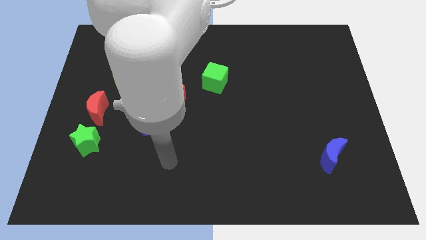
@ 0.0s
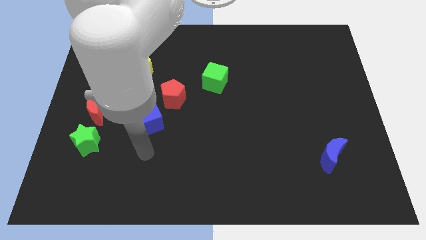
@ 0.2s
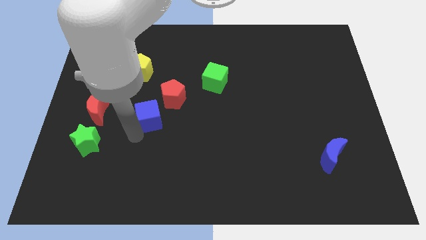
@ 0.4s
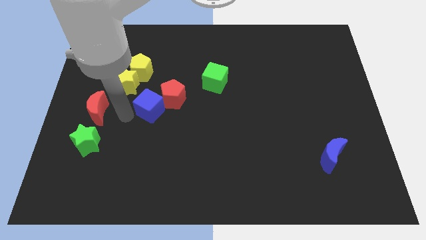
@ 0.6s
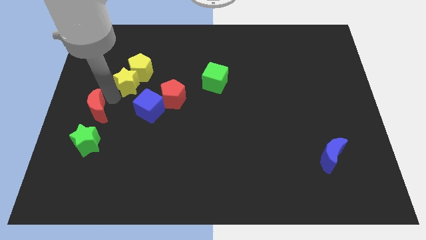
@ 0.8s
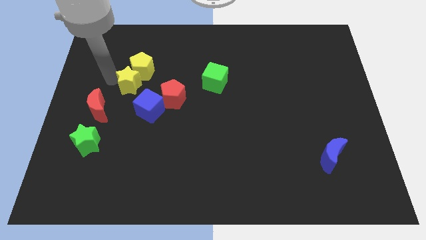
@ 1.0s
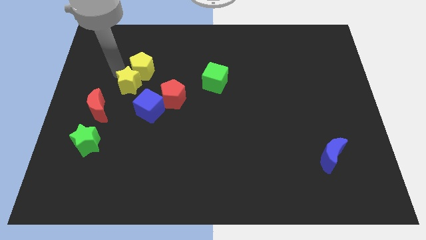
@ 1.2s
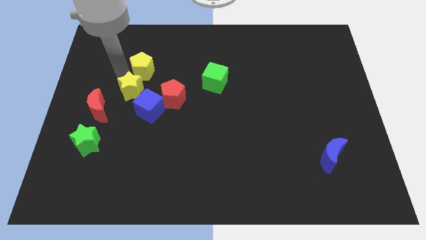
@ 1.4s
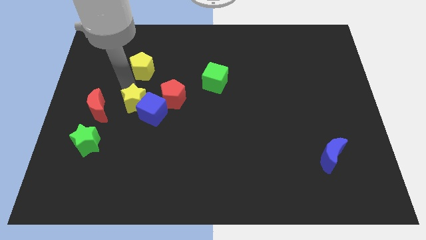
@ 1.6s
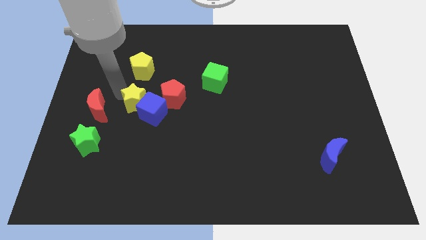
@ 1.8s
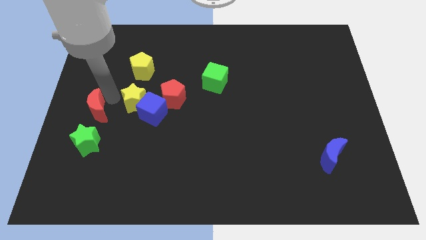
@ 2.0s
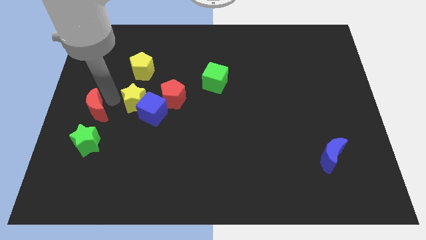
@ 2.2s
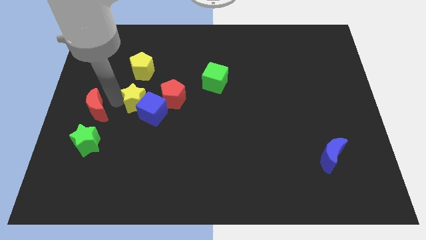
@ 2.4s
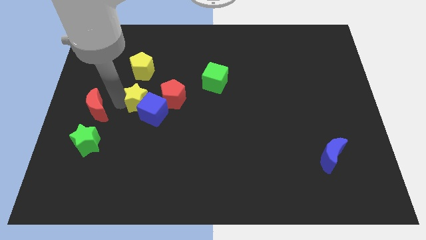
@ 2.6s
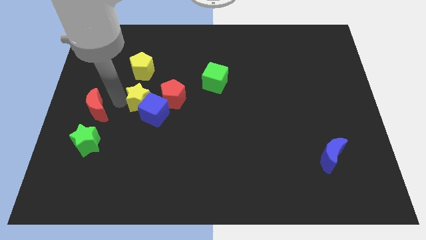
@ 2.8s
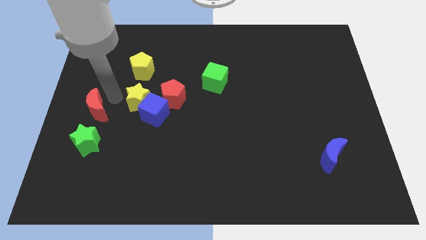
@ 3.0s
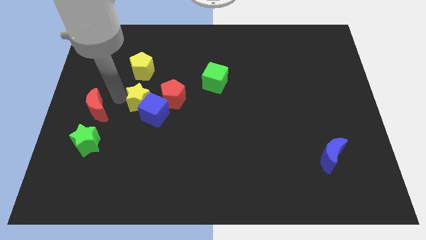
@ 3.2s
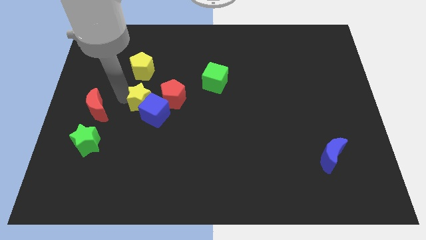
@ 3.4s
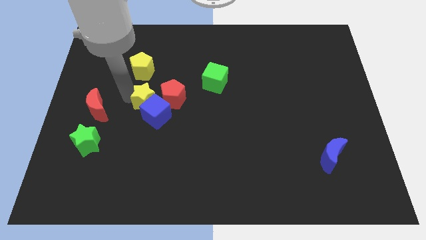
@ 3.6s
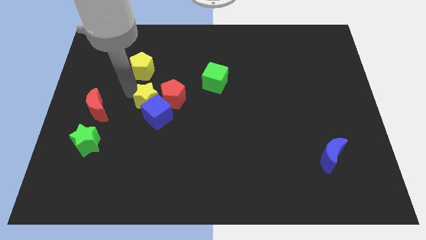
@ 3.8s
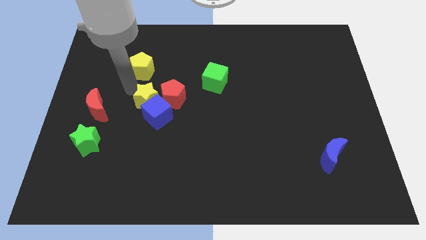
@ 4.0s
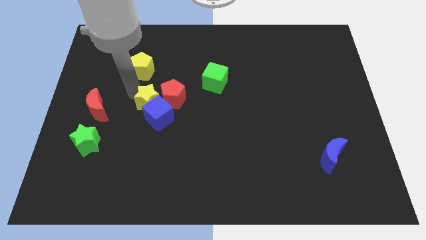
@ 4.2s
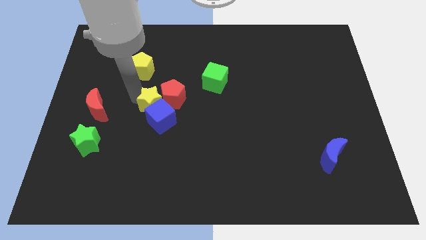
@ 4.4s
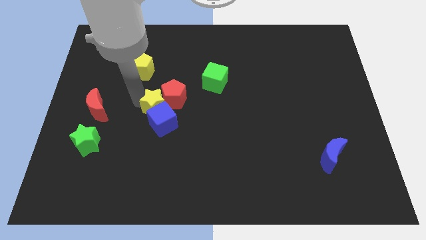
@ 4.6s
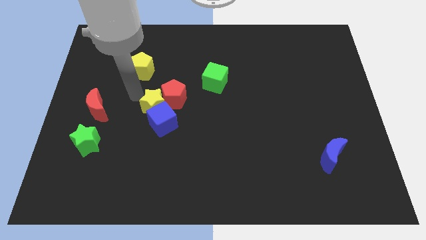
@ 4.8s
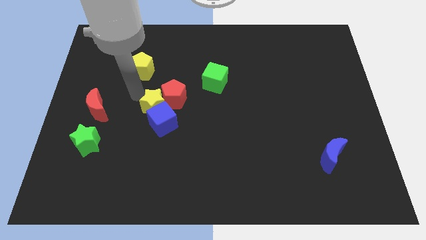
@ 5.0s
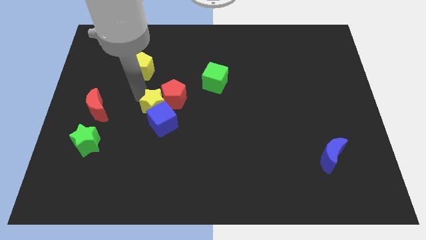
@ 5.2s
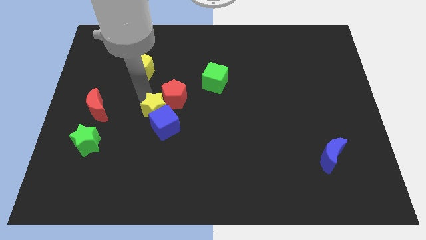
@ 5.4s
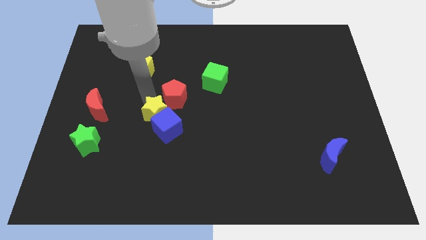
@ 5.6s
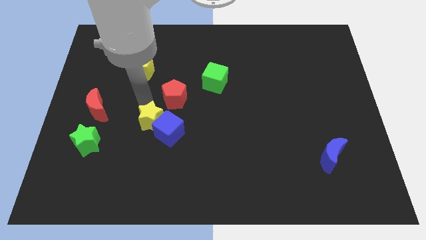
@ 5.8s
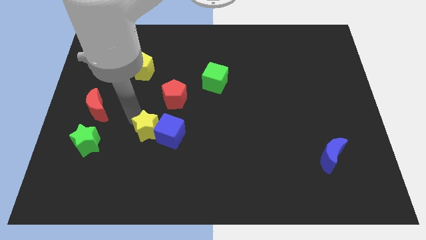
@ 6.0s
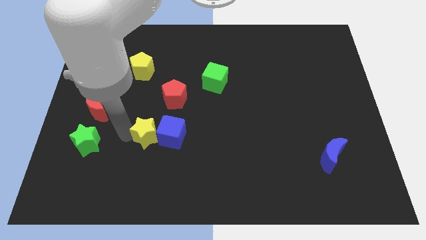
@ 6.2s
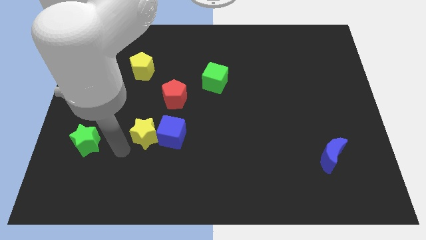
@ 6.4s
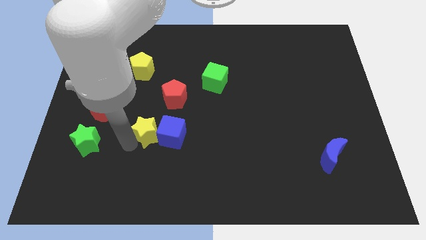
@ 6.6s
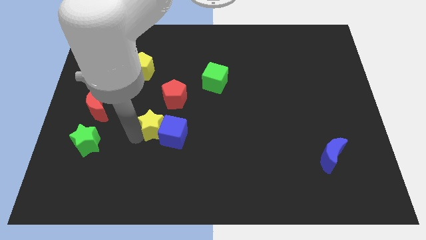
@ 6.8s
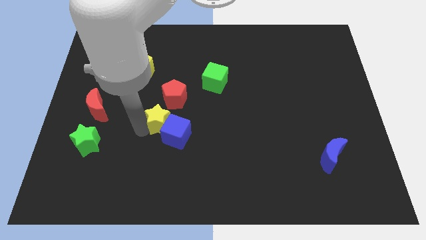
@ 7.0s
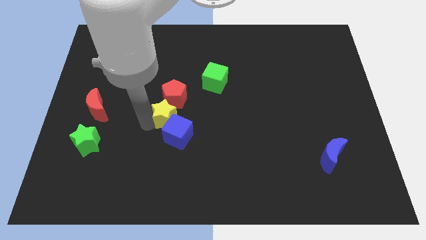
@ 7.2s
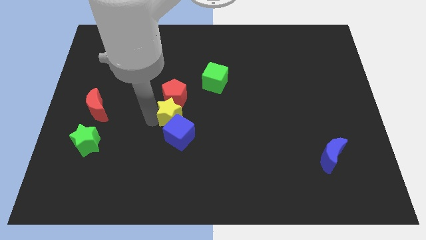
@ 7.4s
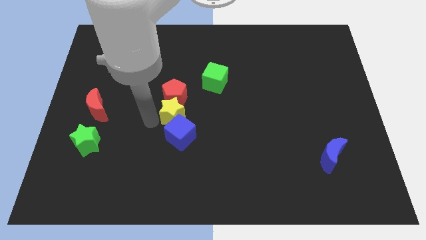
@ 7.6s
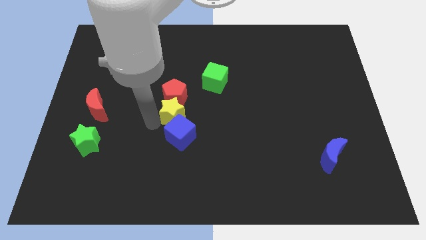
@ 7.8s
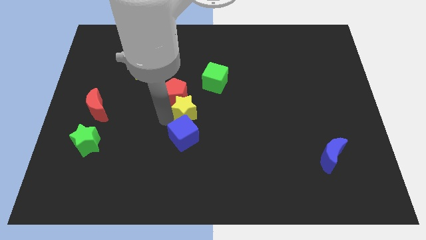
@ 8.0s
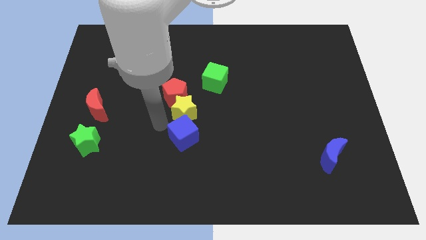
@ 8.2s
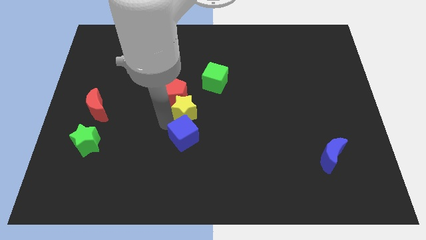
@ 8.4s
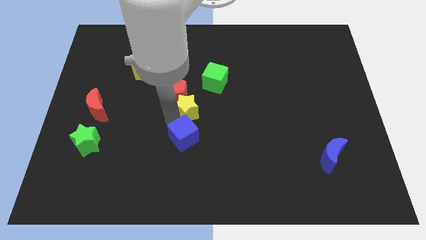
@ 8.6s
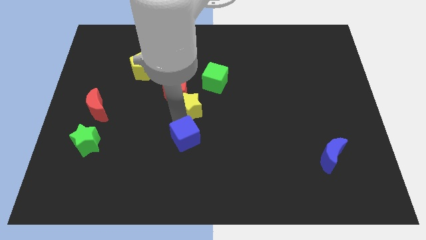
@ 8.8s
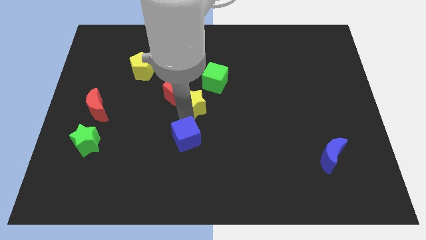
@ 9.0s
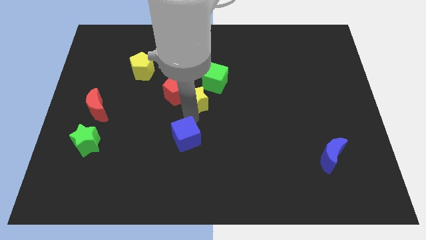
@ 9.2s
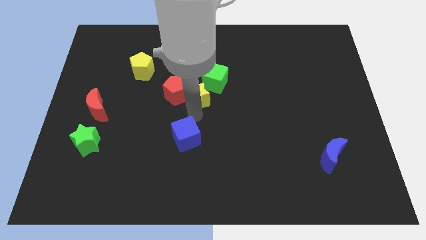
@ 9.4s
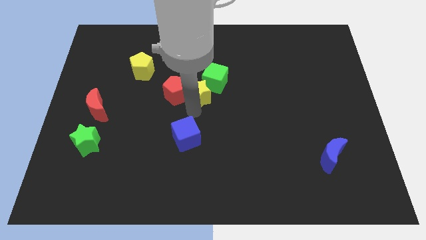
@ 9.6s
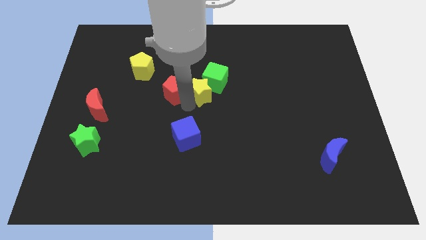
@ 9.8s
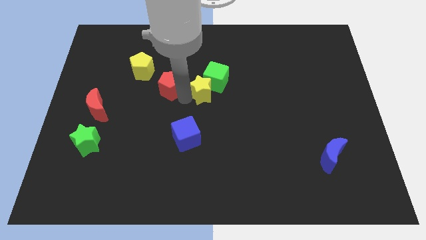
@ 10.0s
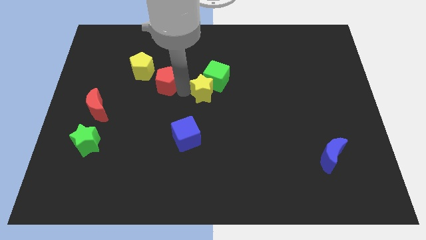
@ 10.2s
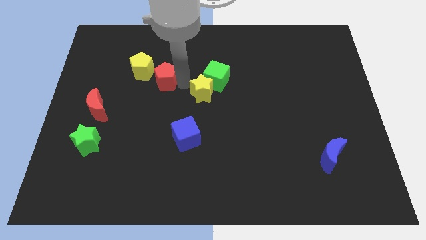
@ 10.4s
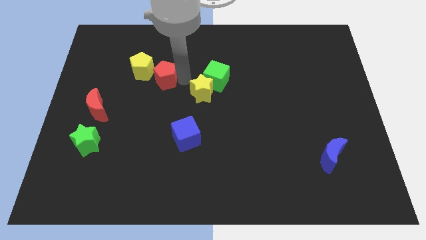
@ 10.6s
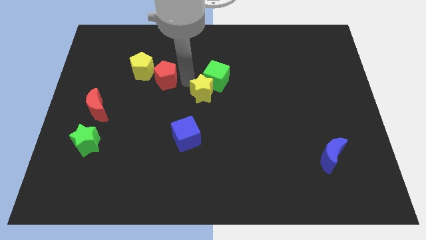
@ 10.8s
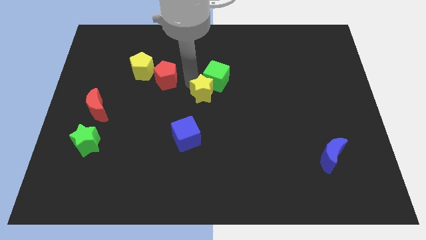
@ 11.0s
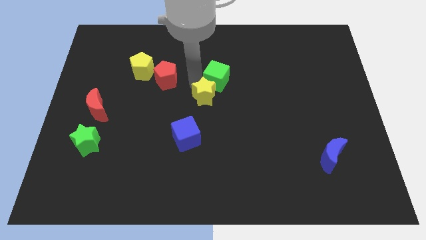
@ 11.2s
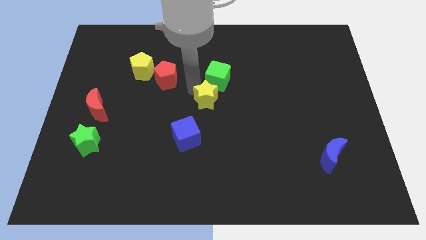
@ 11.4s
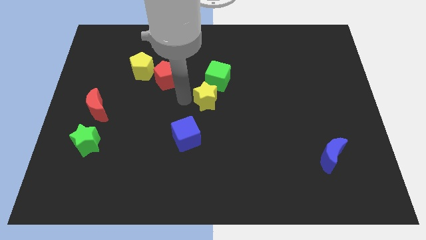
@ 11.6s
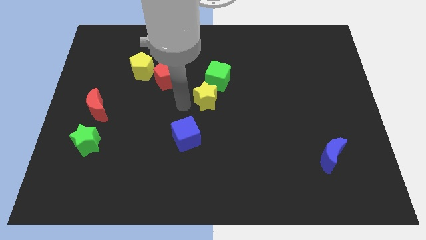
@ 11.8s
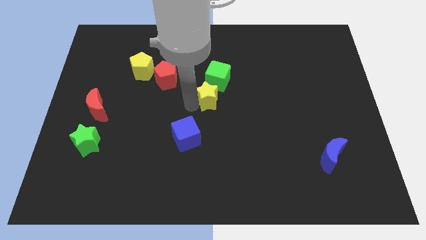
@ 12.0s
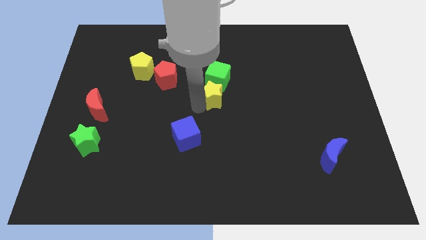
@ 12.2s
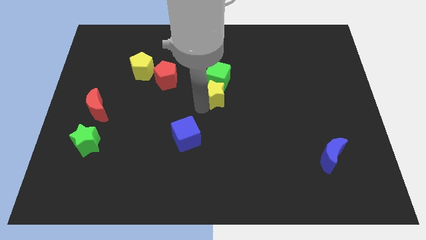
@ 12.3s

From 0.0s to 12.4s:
push the yellow star to the bottom right of the green cube

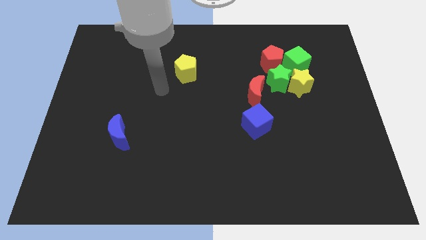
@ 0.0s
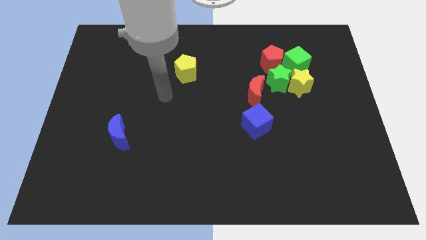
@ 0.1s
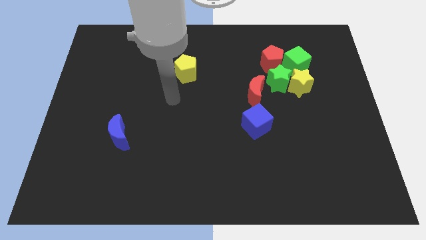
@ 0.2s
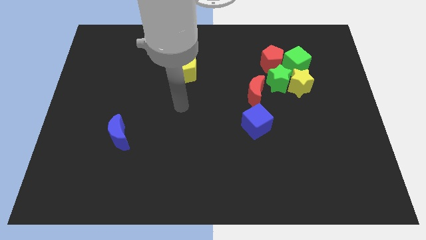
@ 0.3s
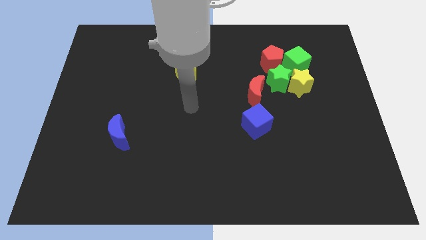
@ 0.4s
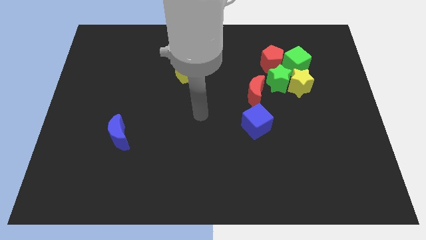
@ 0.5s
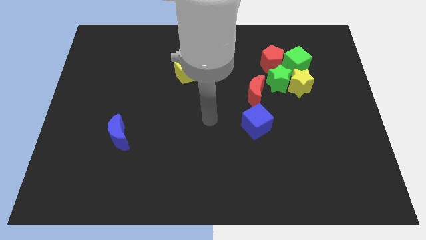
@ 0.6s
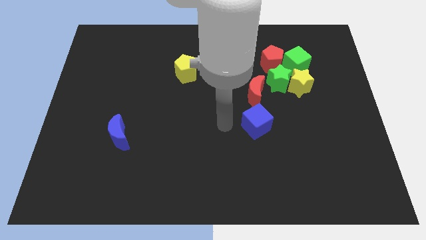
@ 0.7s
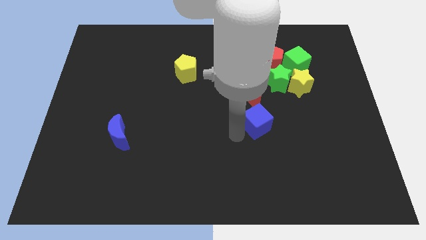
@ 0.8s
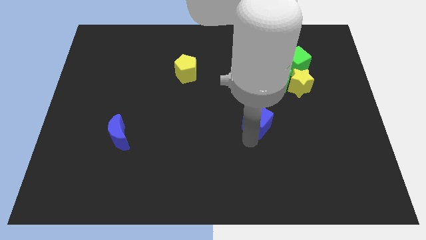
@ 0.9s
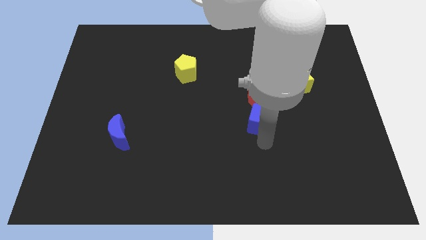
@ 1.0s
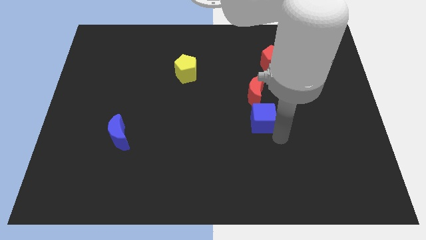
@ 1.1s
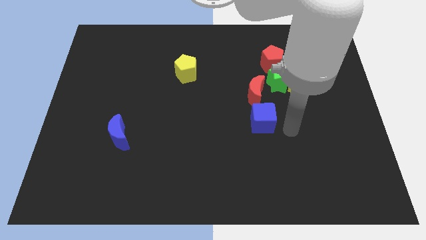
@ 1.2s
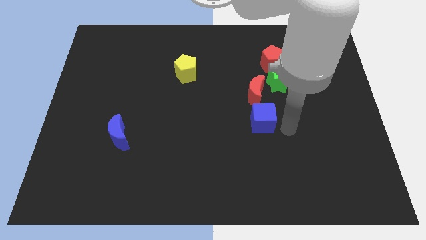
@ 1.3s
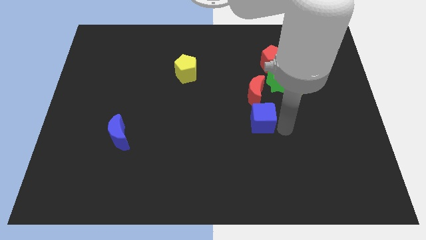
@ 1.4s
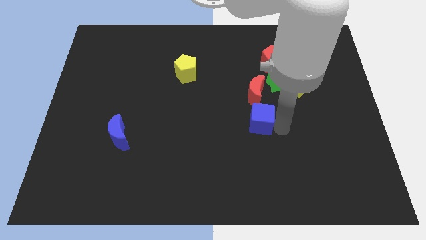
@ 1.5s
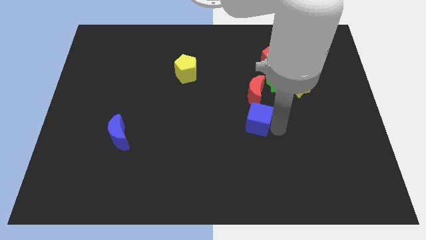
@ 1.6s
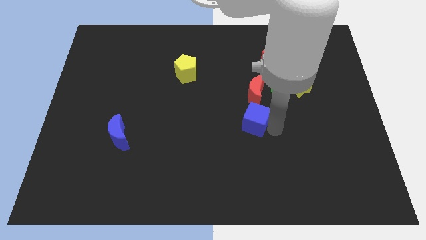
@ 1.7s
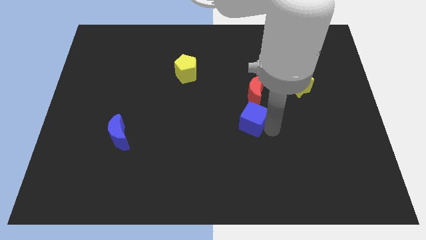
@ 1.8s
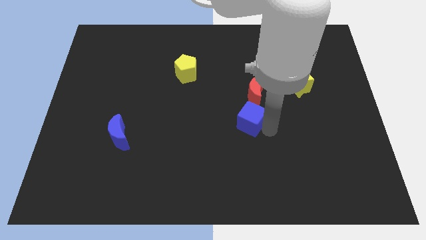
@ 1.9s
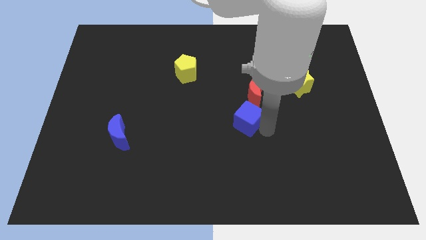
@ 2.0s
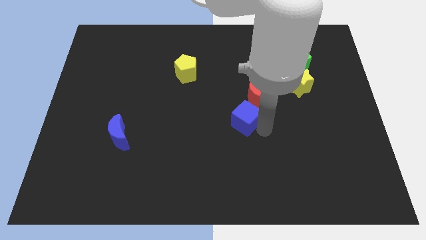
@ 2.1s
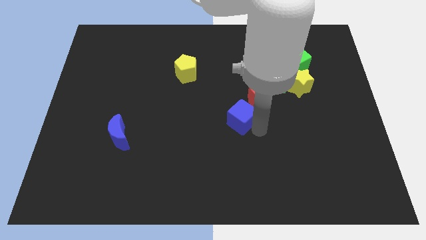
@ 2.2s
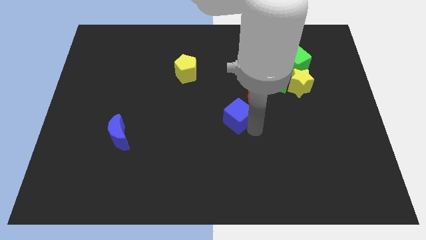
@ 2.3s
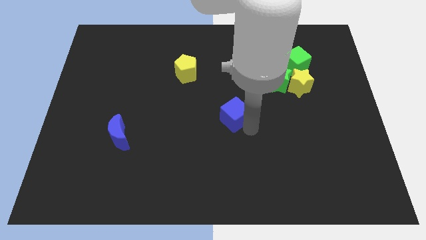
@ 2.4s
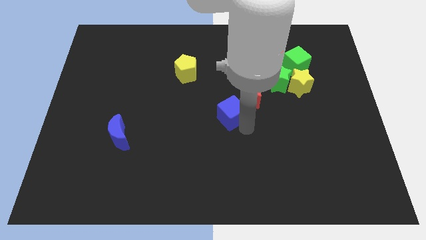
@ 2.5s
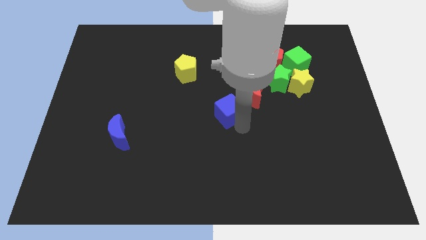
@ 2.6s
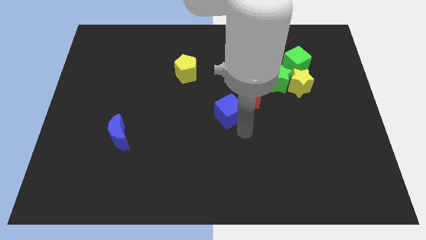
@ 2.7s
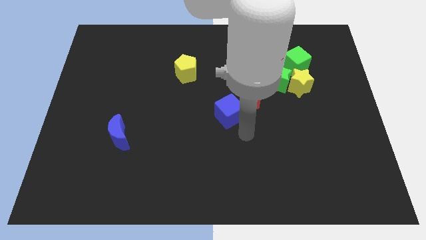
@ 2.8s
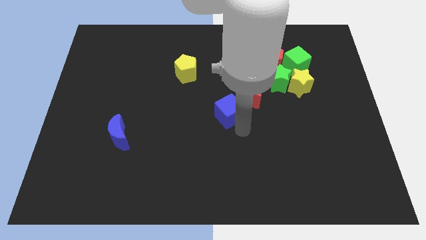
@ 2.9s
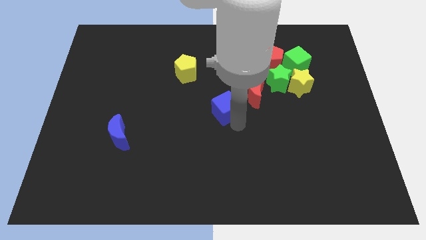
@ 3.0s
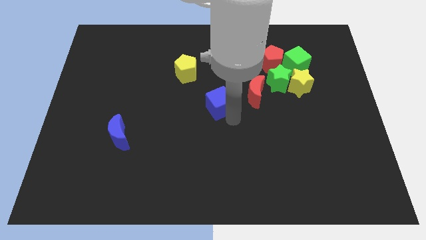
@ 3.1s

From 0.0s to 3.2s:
slide the blue cube left of the red moon
